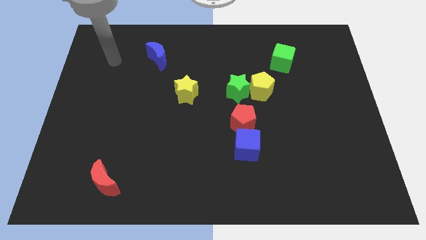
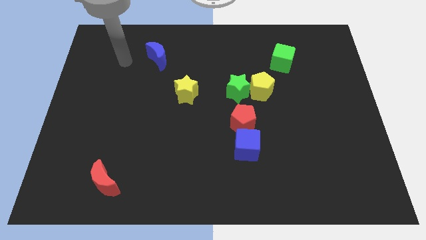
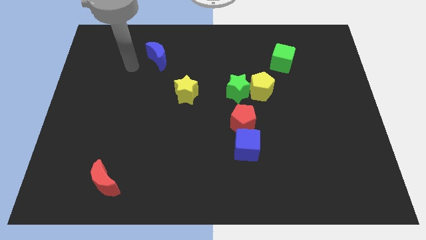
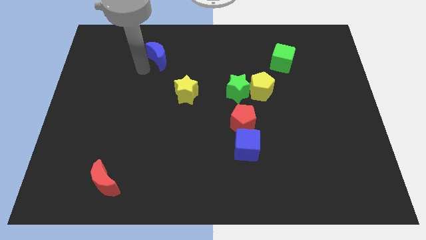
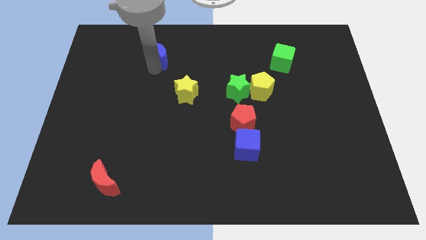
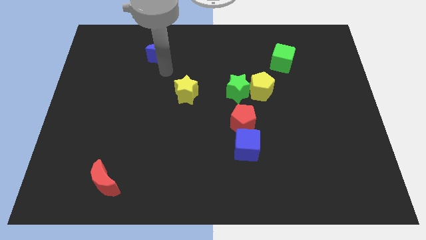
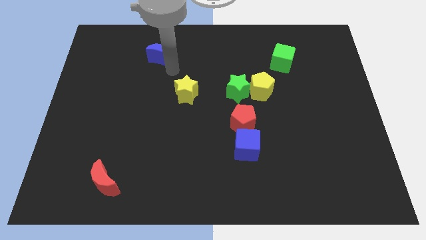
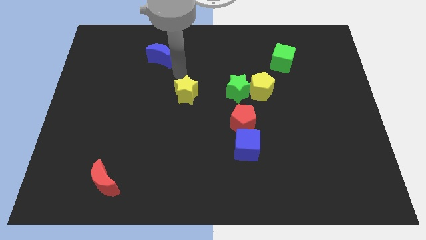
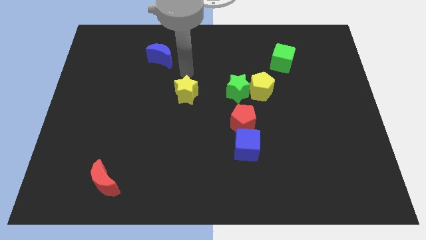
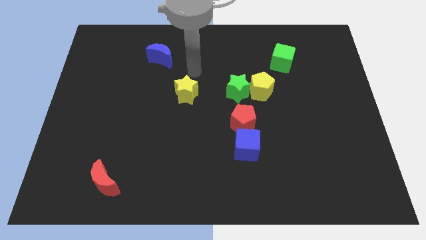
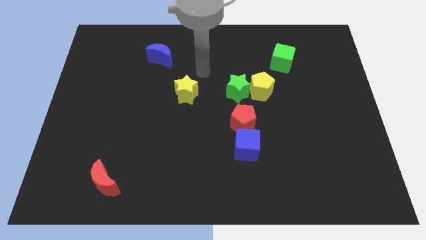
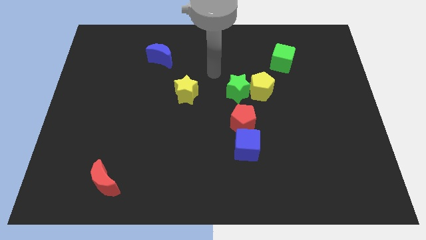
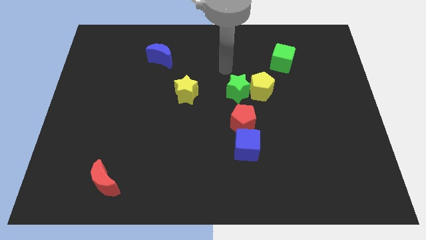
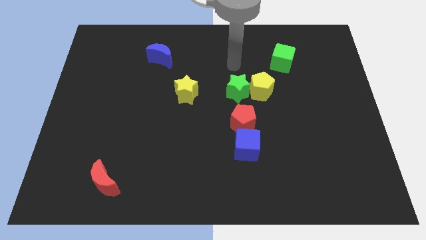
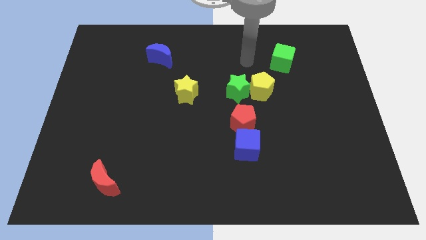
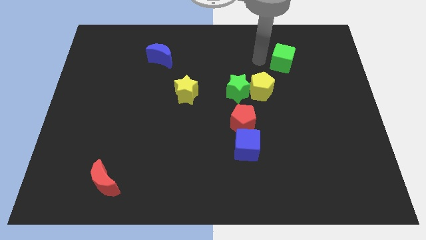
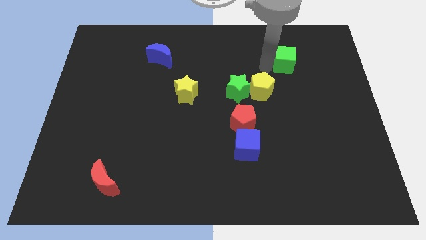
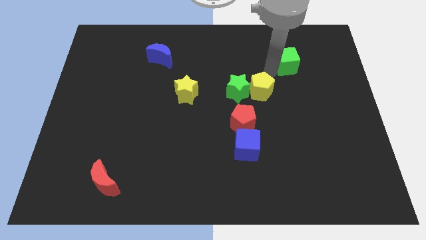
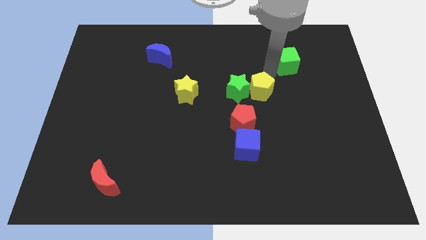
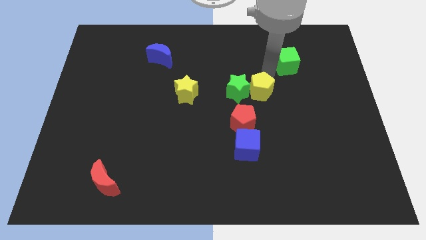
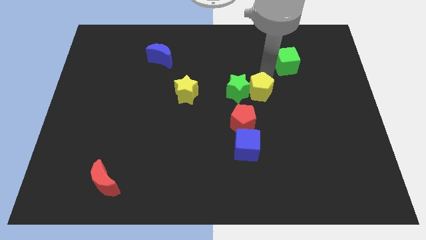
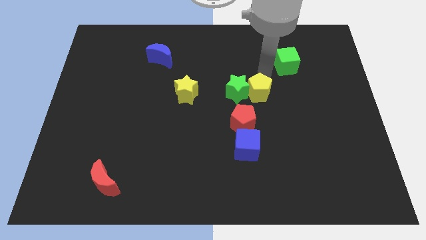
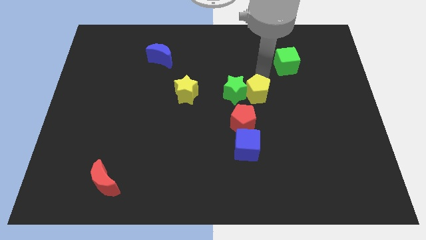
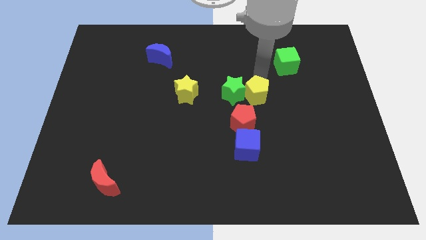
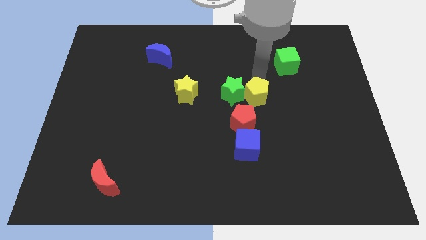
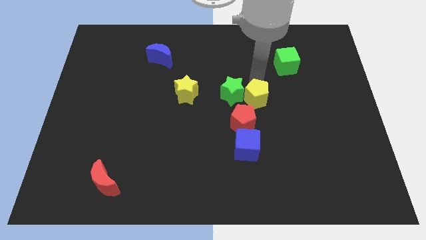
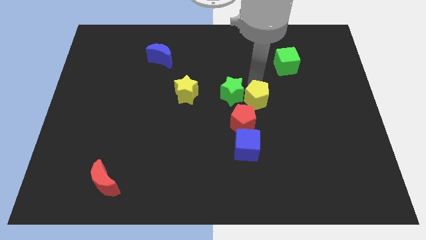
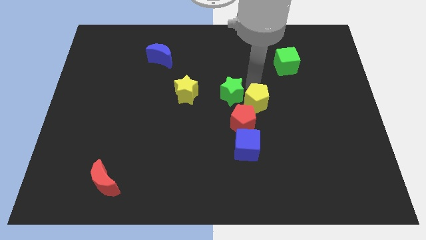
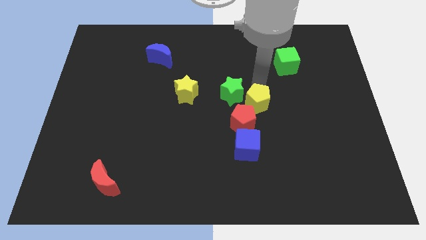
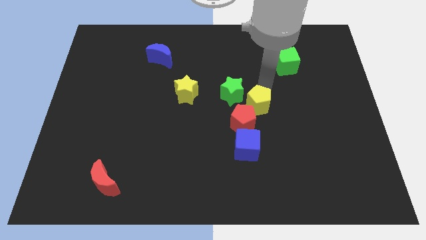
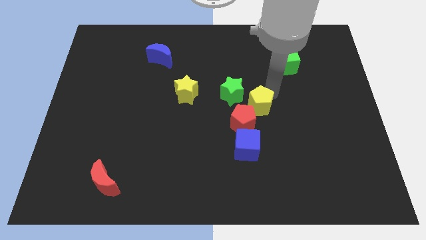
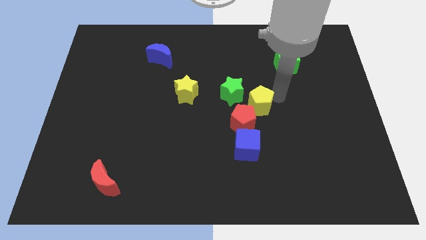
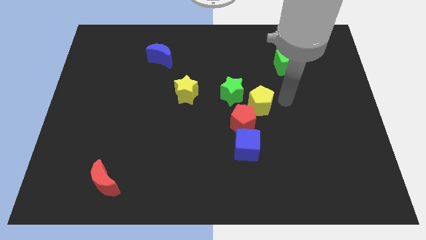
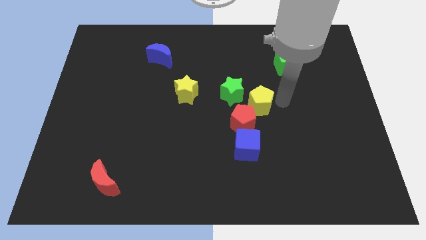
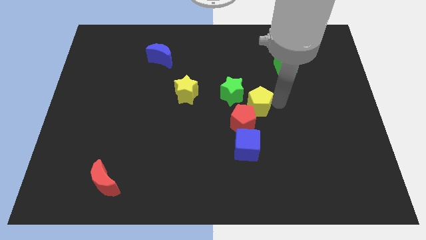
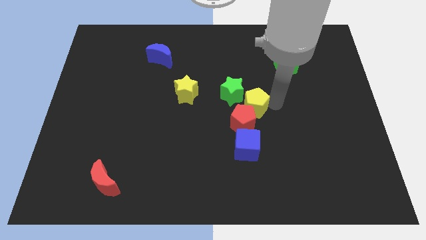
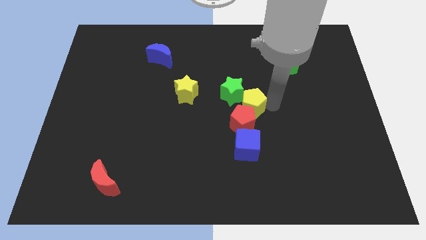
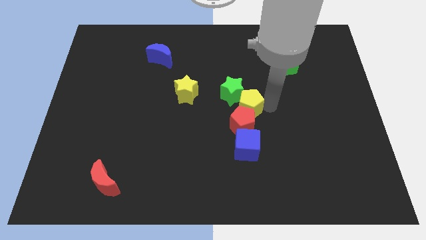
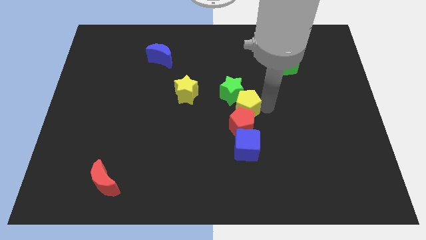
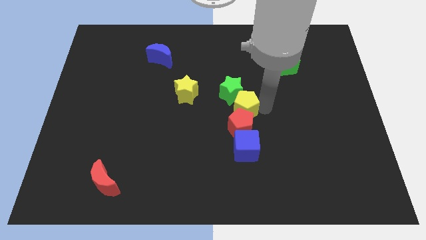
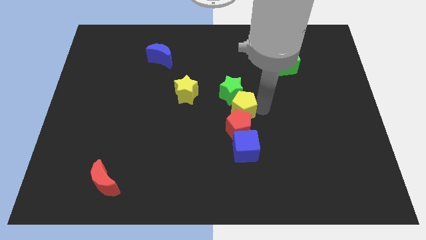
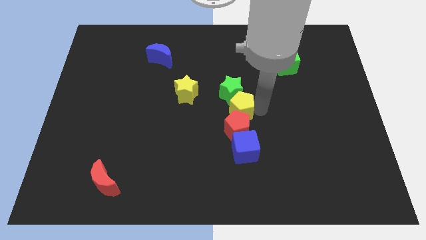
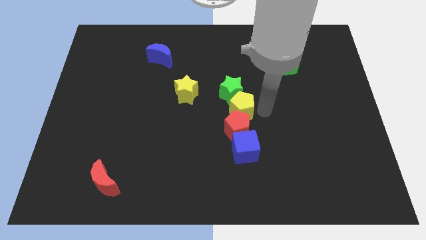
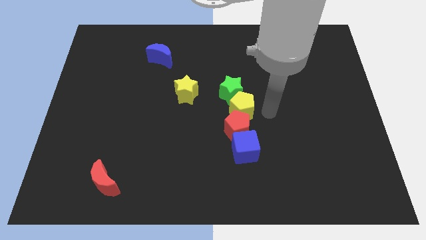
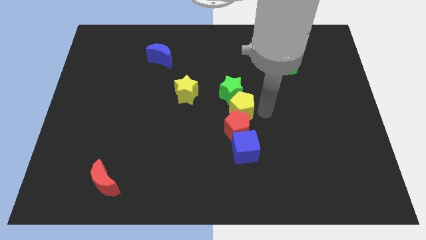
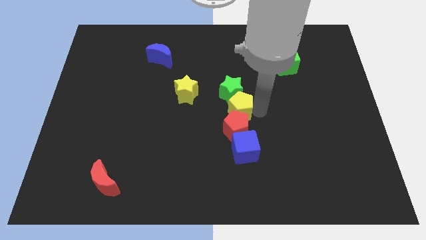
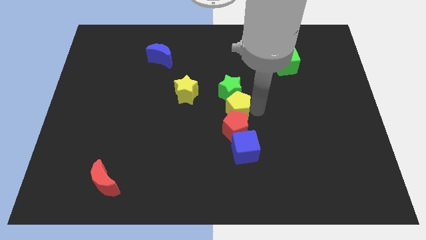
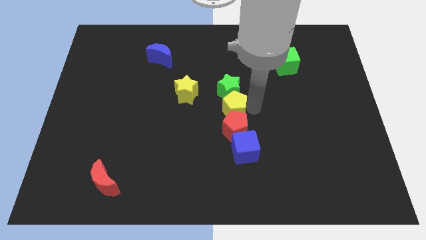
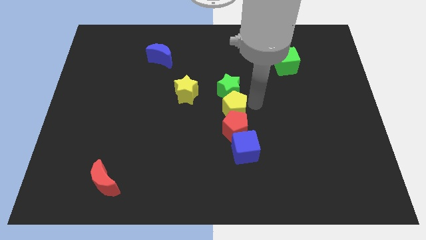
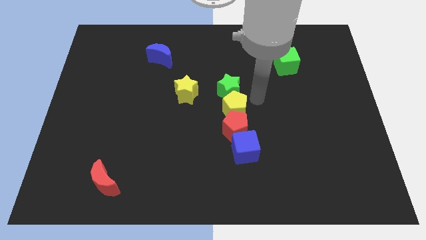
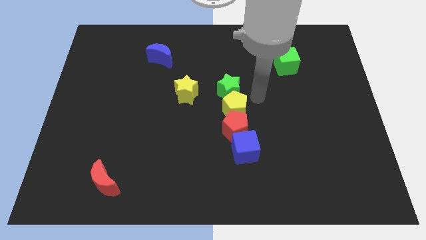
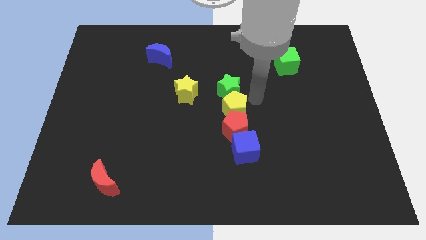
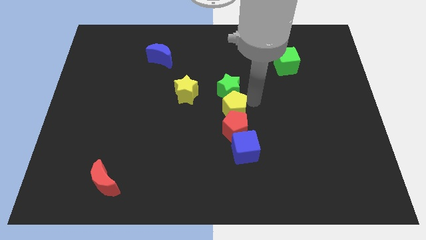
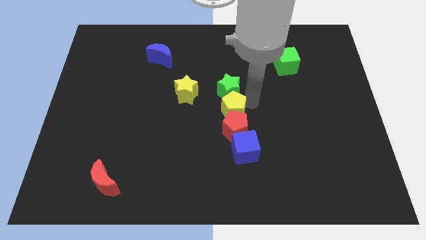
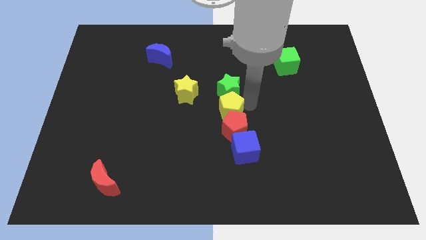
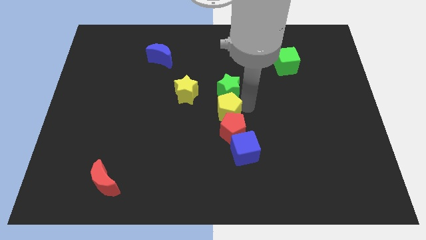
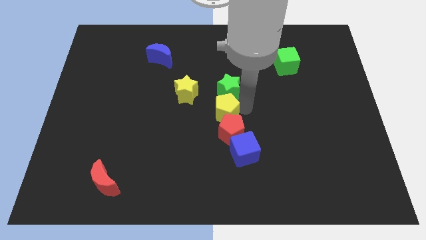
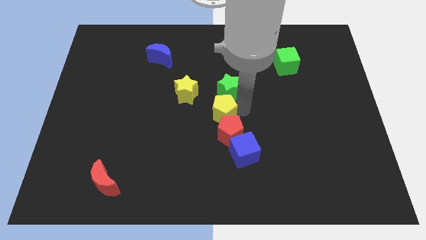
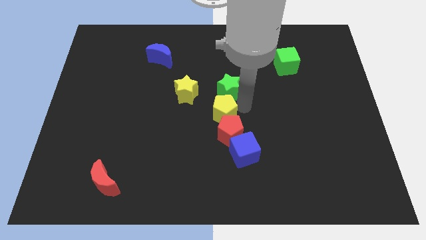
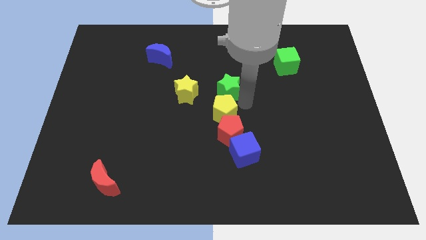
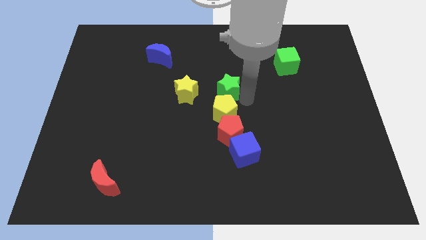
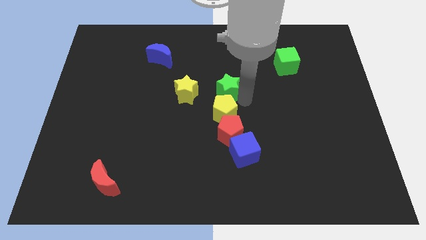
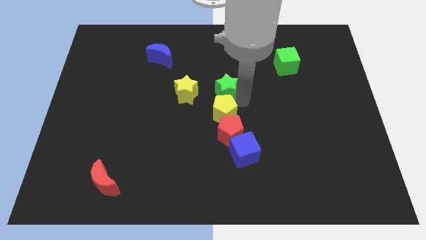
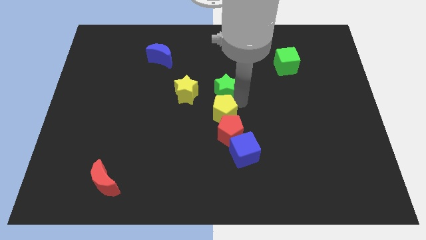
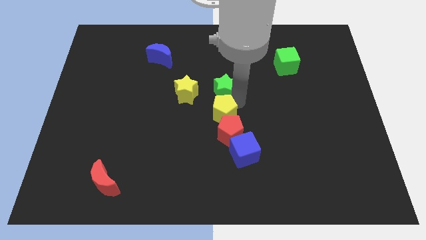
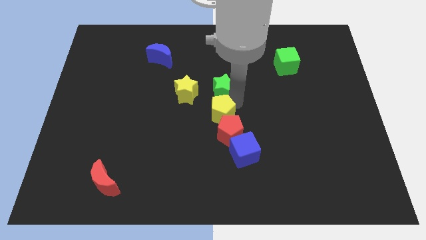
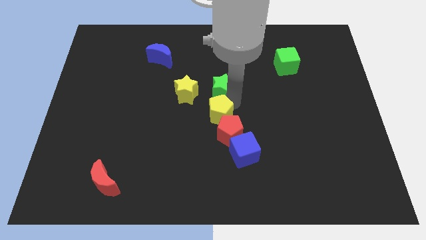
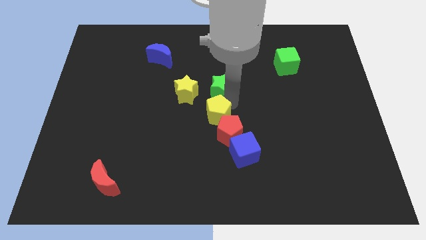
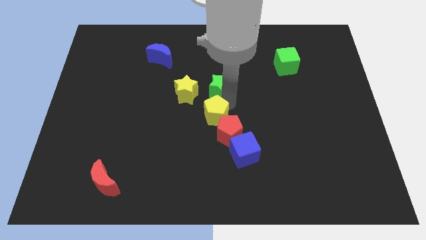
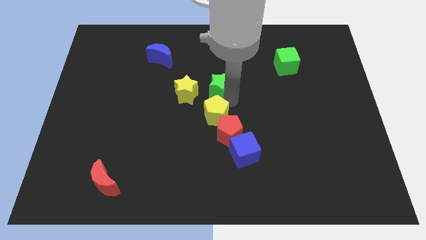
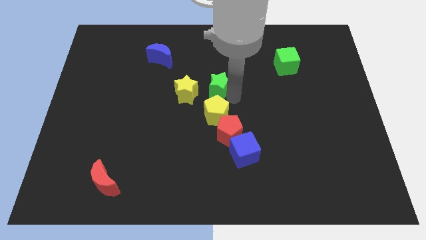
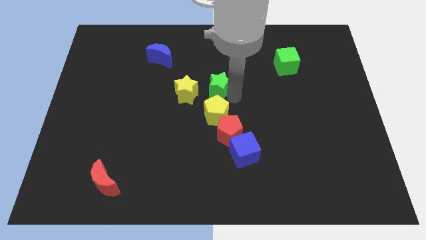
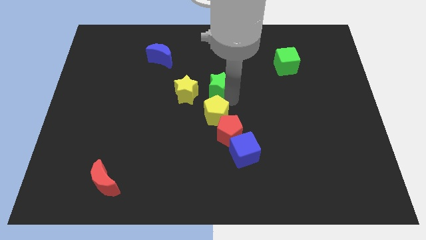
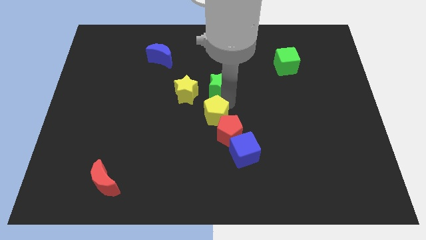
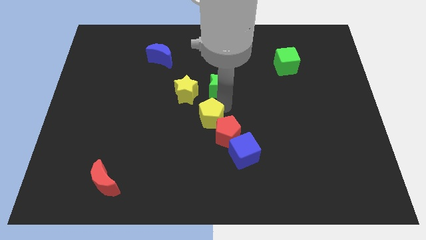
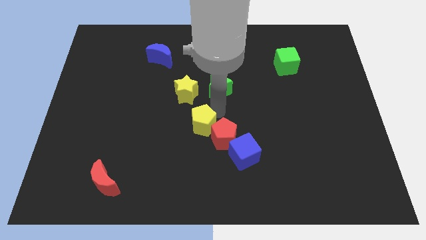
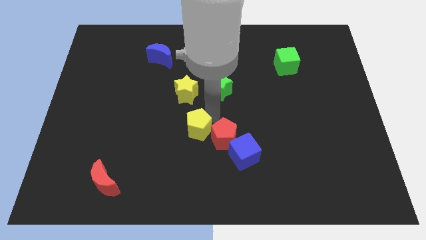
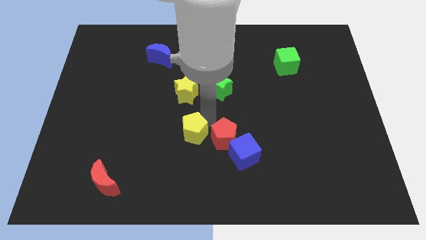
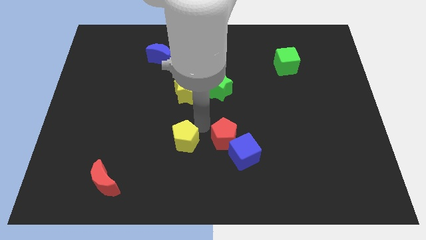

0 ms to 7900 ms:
push the yellow pentagon down and left diagonally

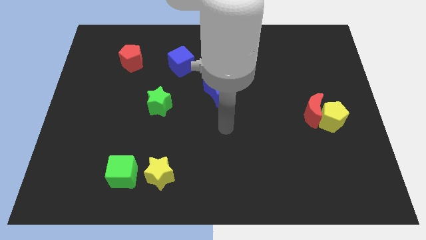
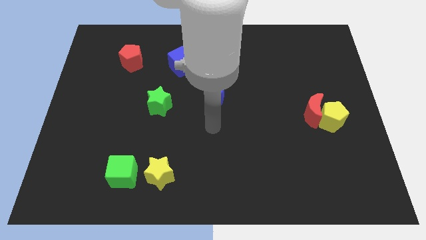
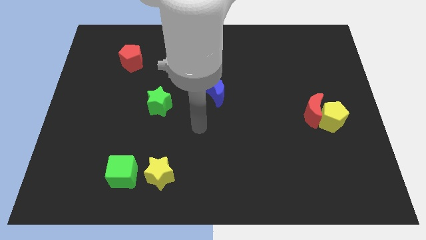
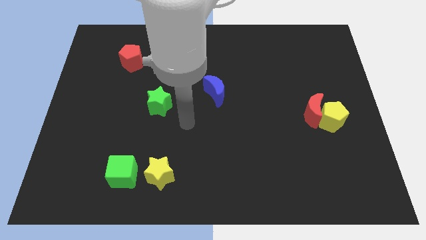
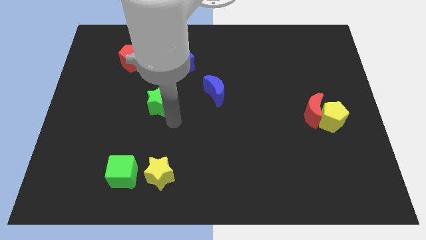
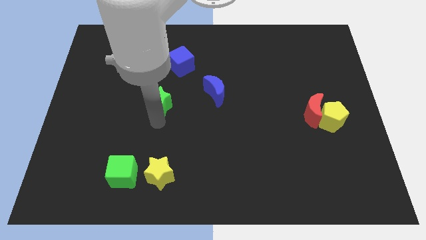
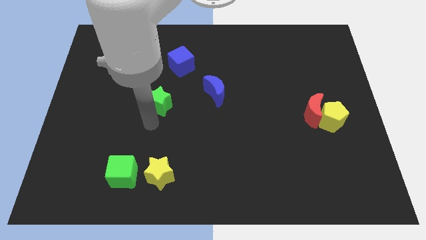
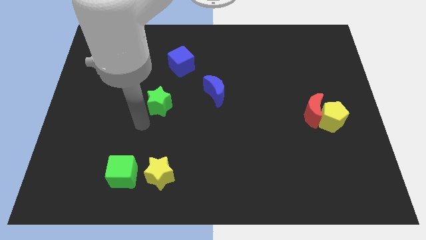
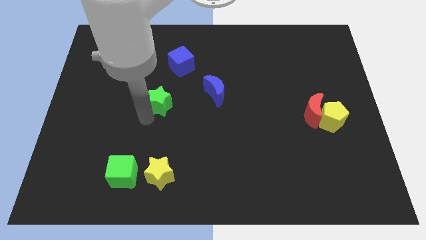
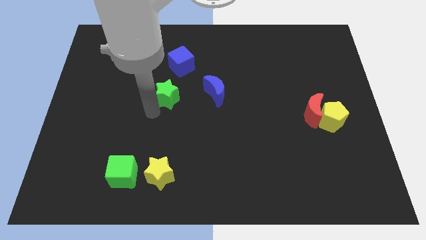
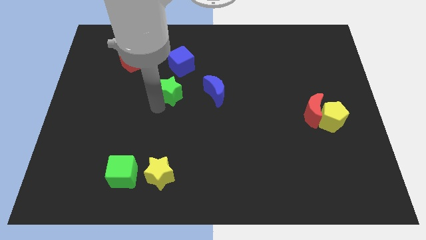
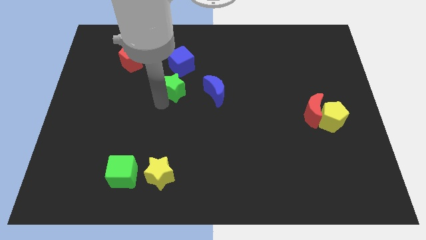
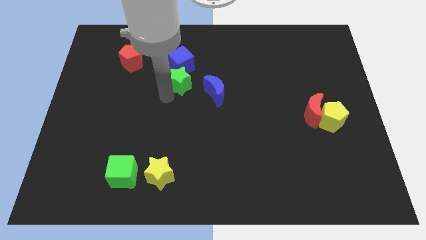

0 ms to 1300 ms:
slide the green star a bit up and then right
